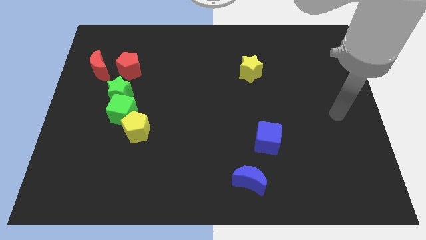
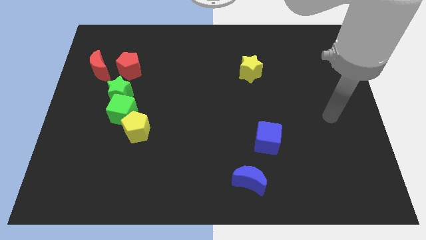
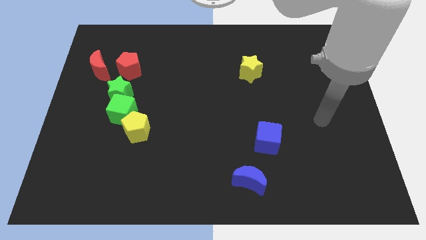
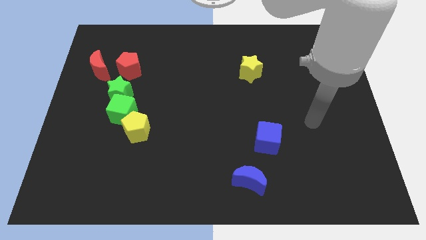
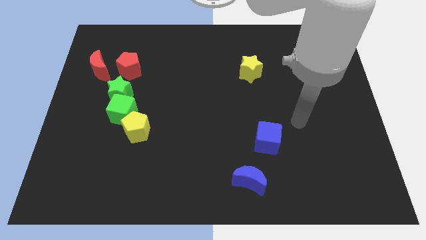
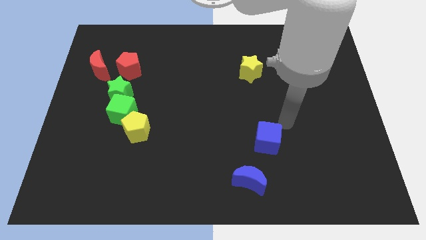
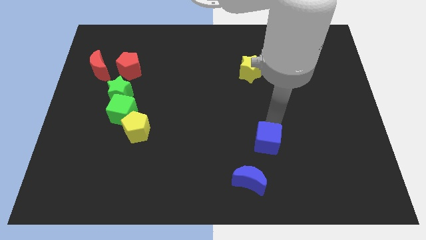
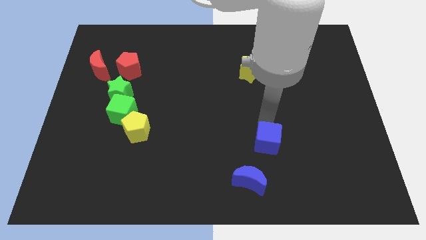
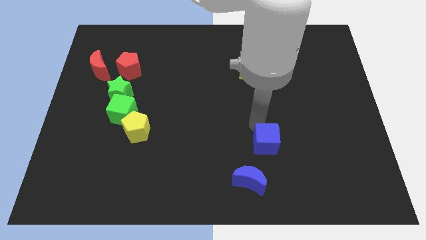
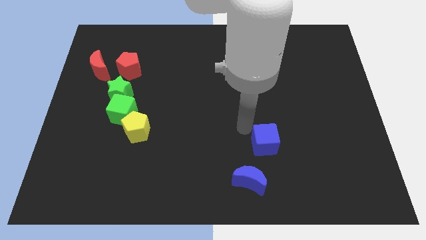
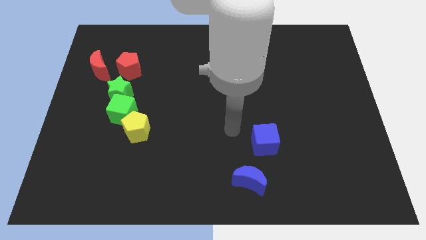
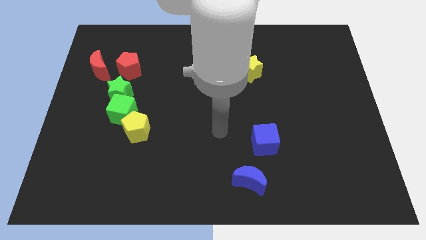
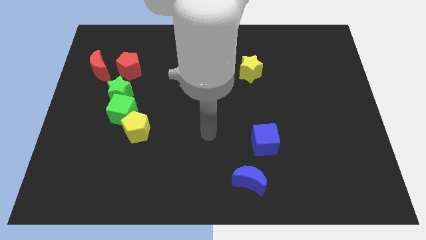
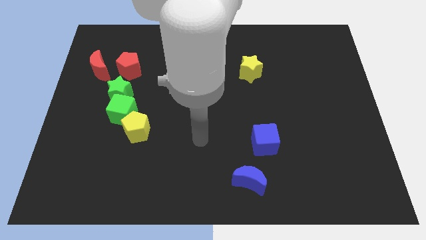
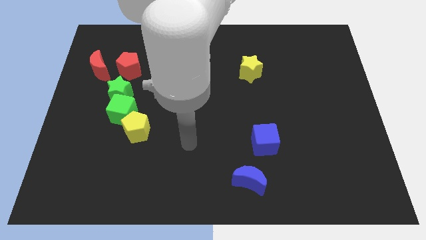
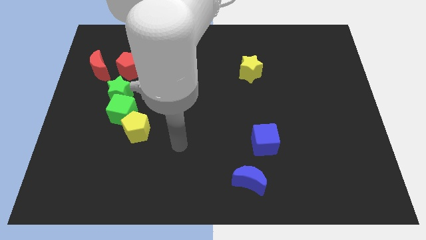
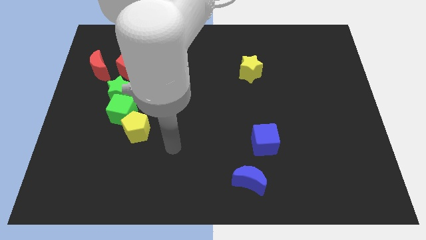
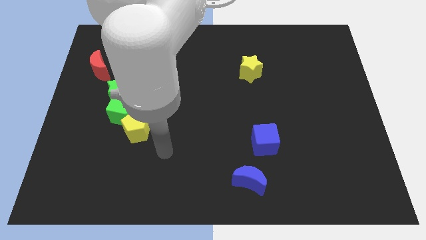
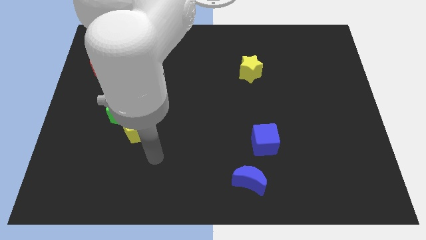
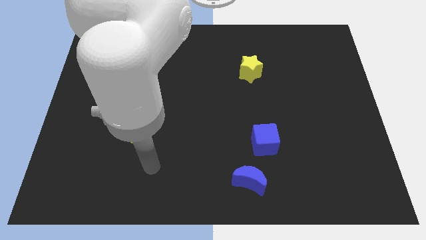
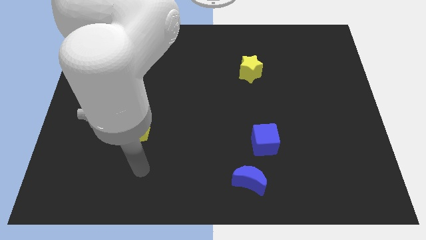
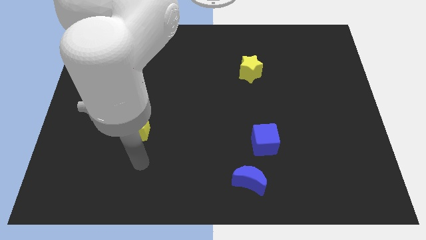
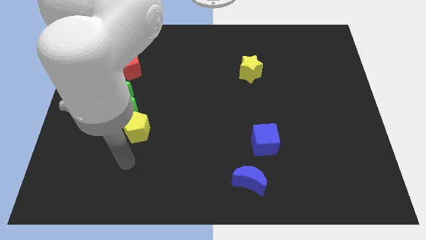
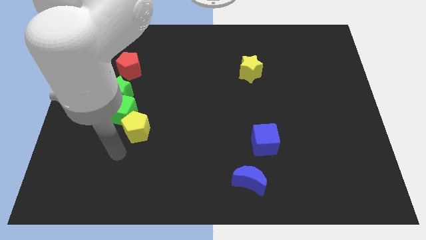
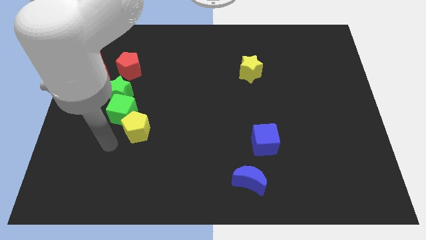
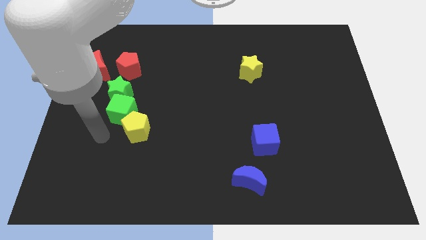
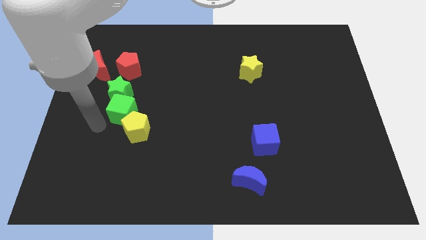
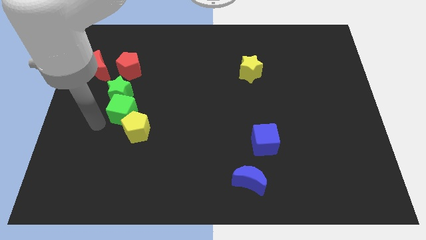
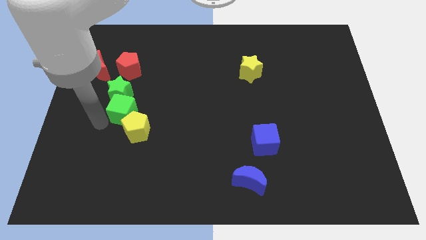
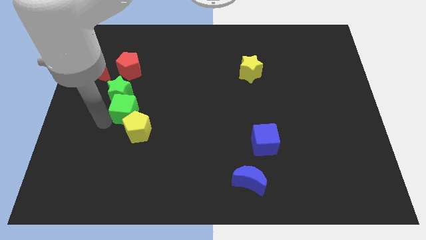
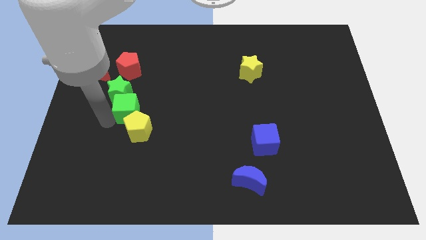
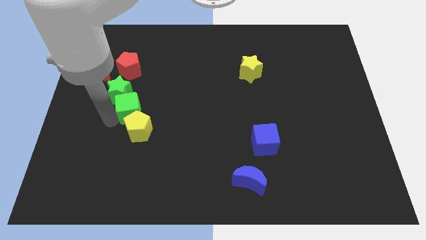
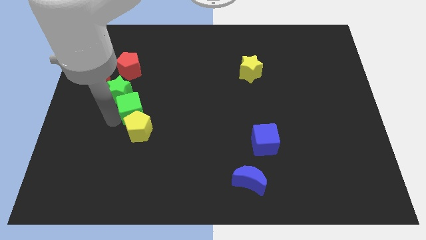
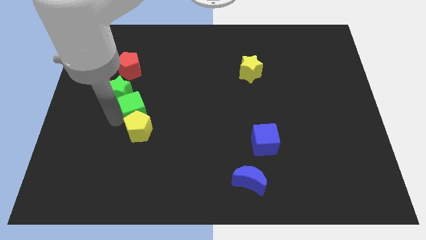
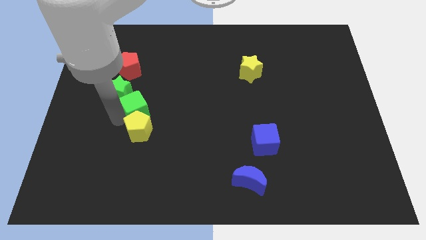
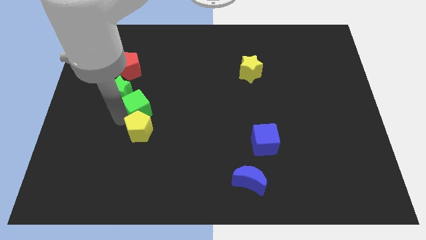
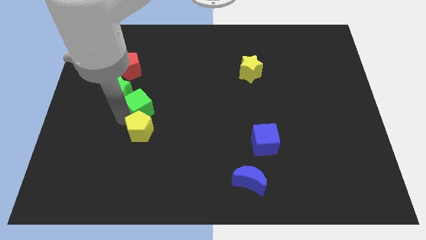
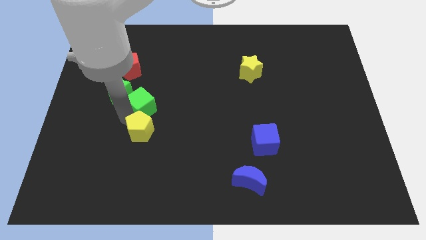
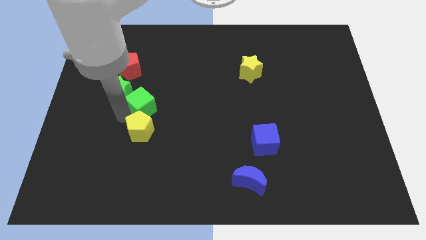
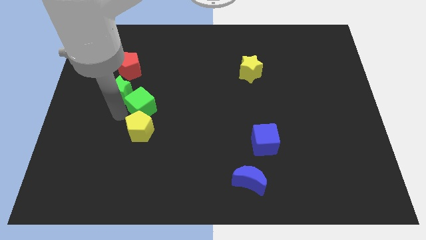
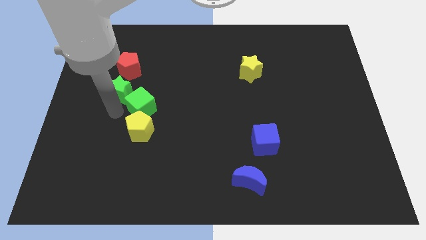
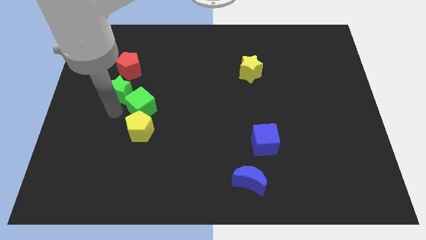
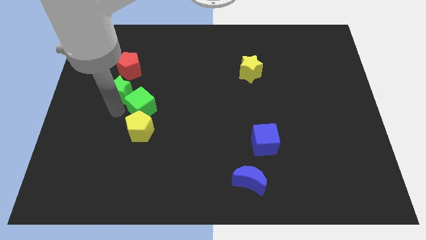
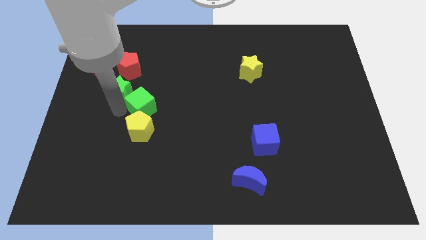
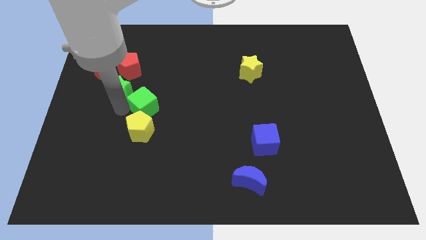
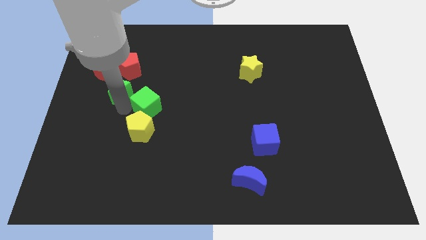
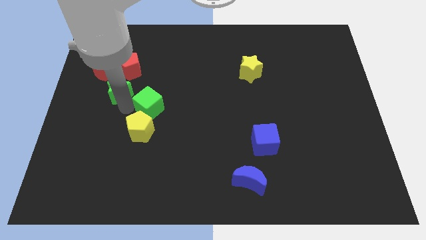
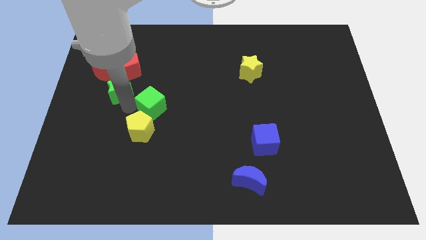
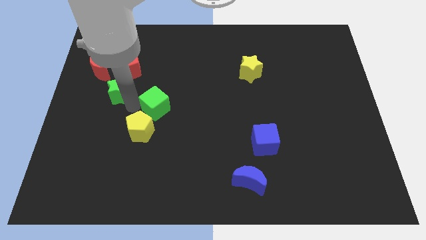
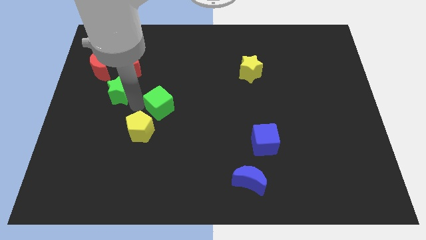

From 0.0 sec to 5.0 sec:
move the green cube to the middle of the board

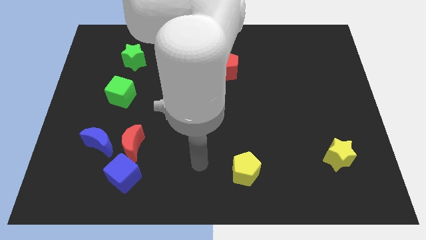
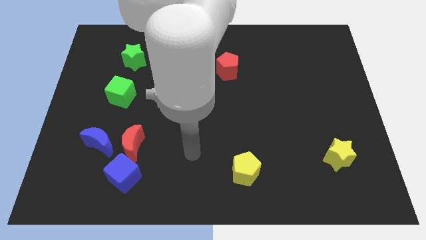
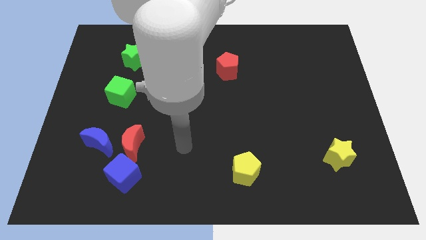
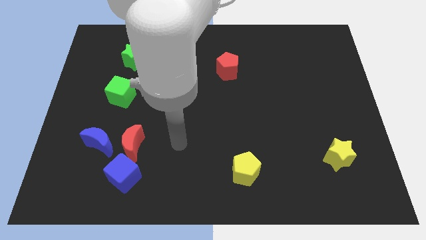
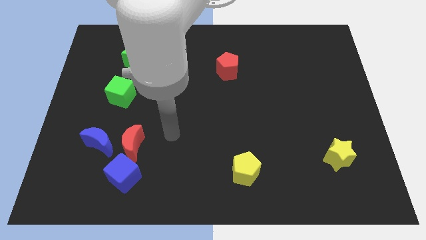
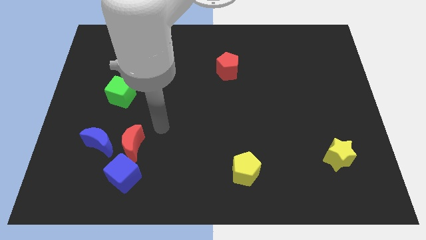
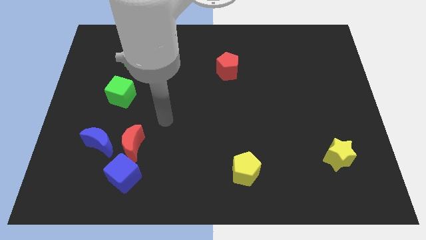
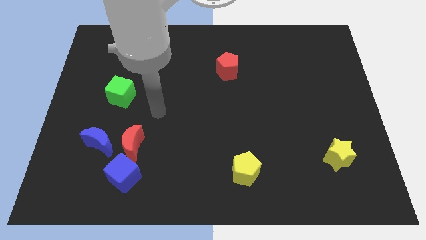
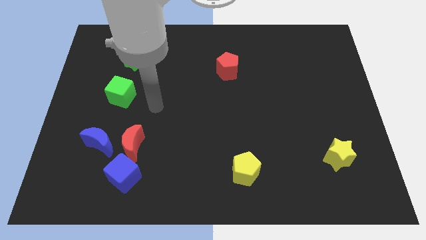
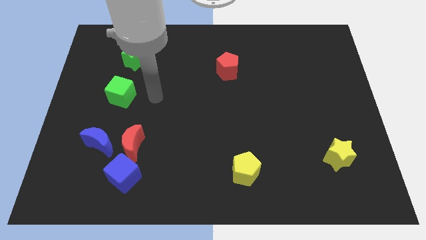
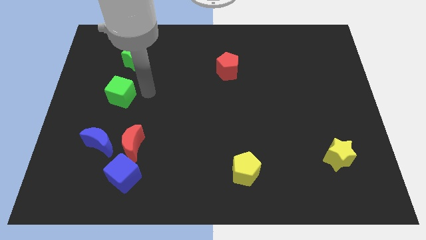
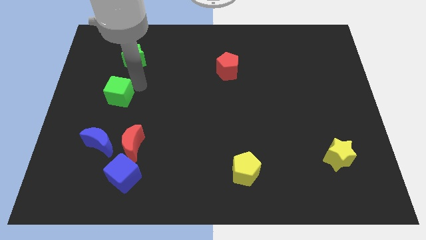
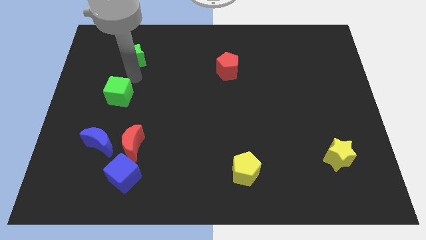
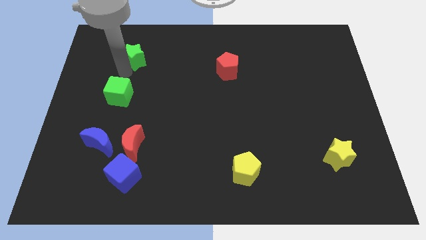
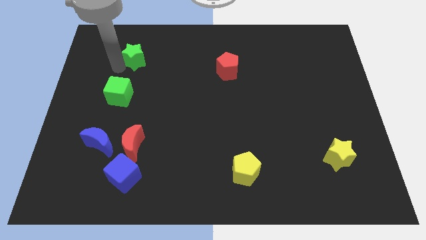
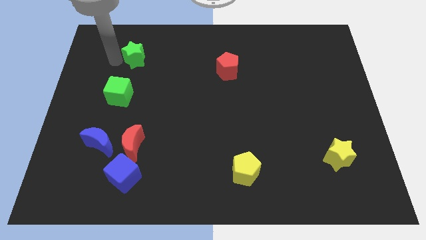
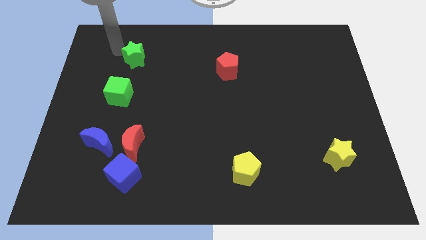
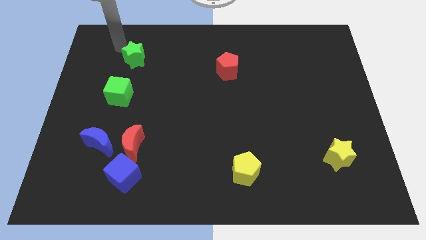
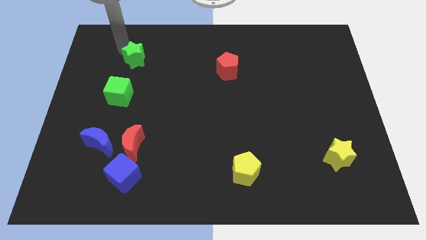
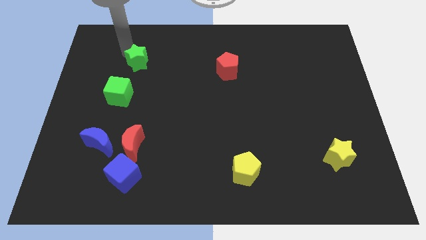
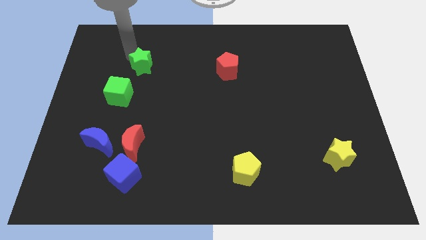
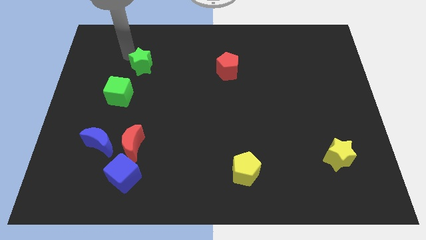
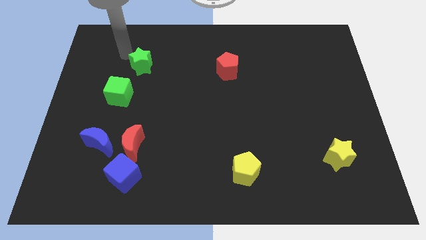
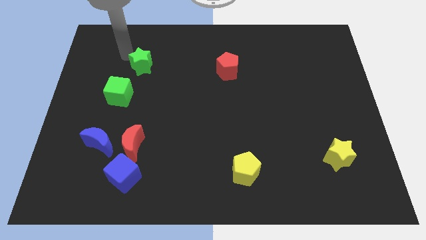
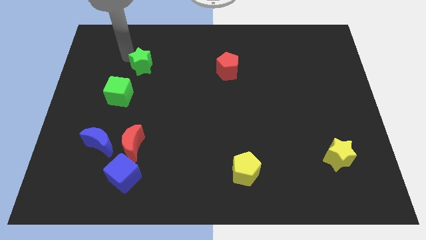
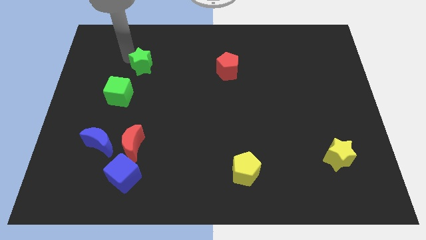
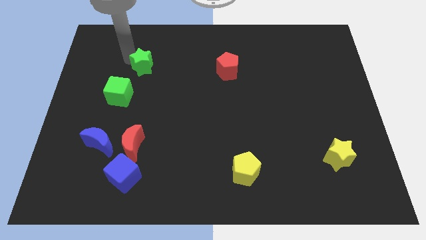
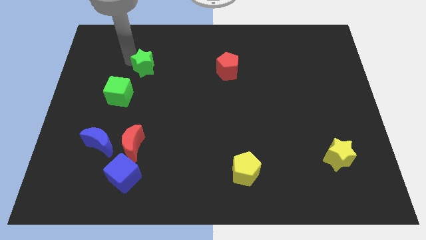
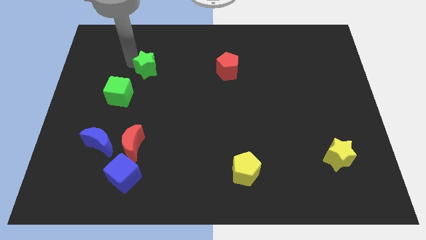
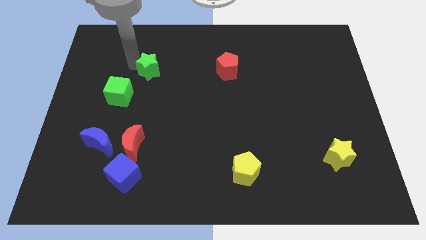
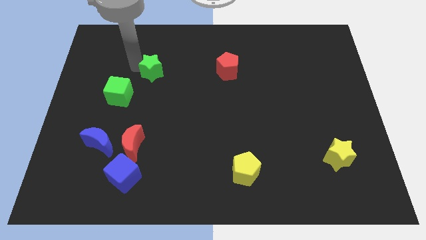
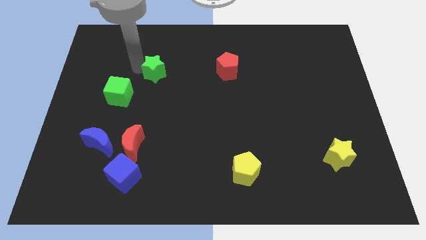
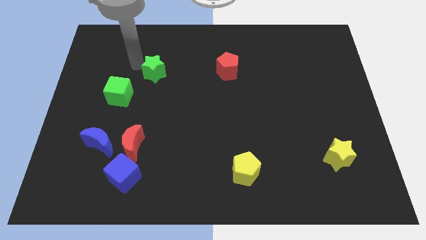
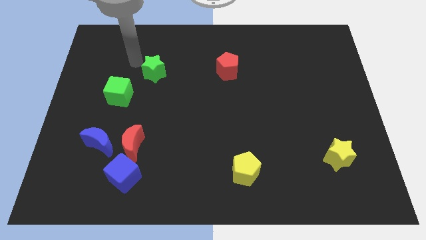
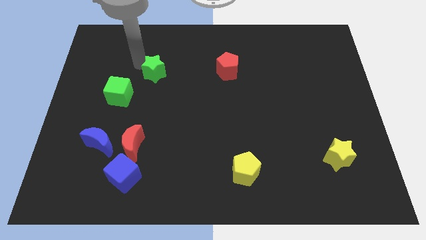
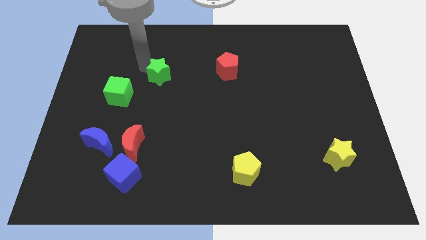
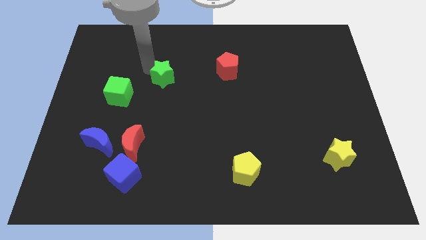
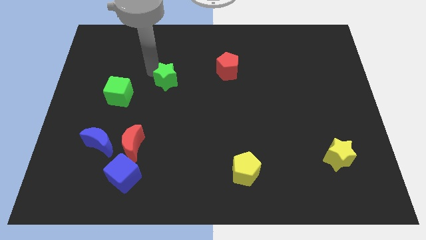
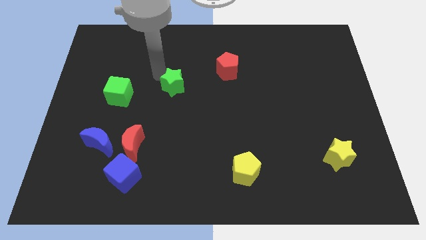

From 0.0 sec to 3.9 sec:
slide the green star to the center
